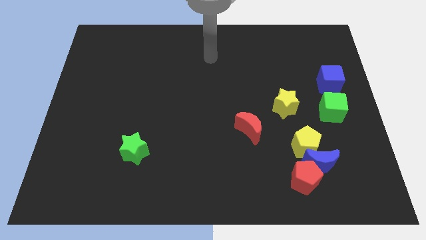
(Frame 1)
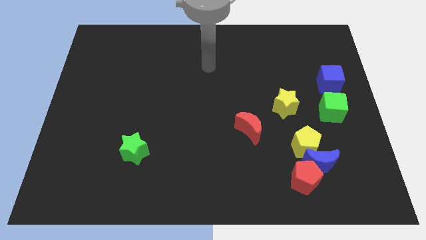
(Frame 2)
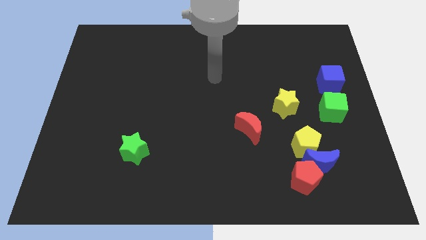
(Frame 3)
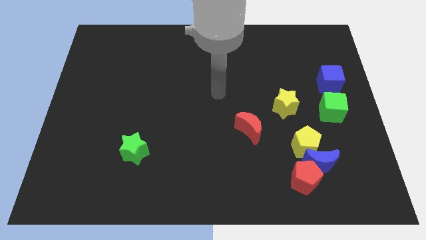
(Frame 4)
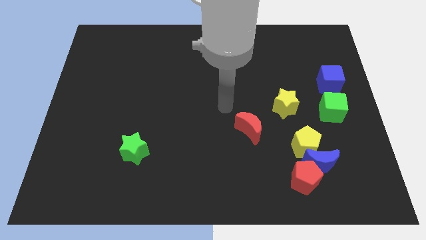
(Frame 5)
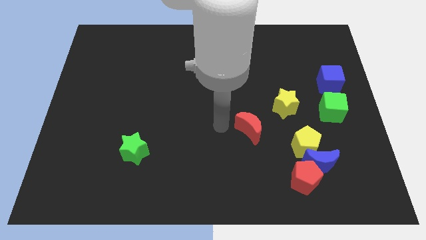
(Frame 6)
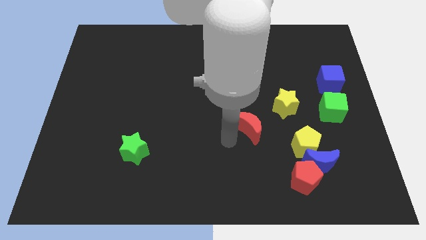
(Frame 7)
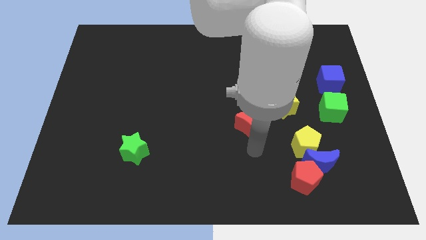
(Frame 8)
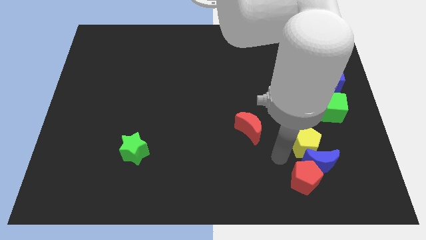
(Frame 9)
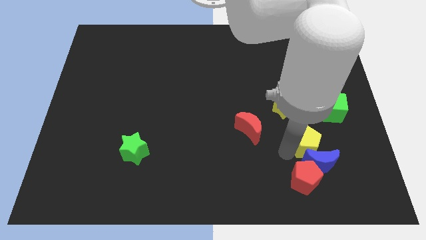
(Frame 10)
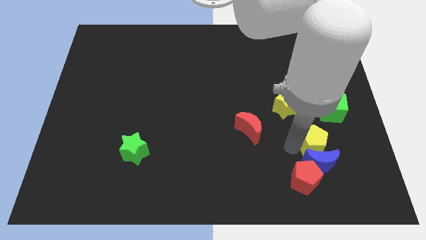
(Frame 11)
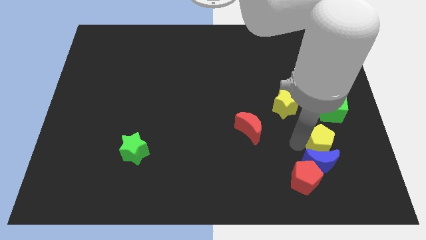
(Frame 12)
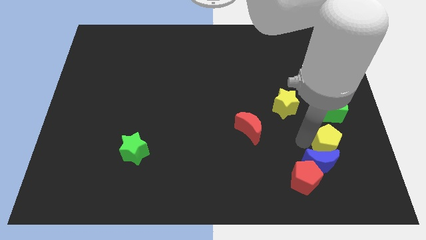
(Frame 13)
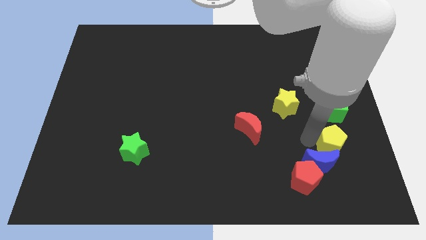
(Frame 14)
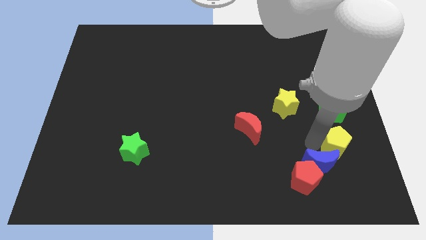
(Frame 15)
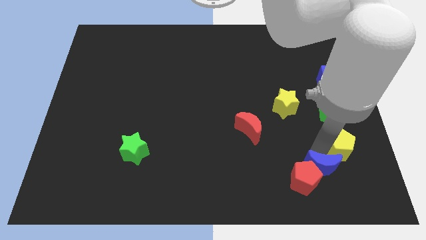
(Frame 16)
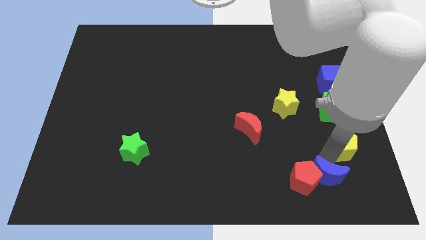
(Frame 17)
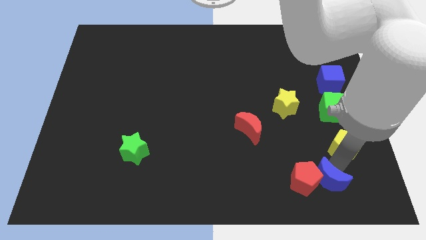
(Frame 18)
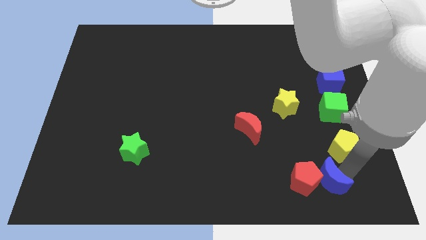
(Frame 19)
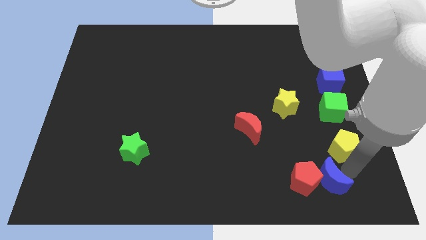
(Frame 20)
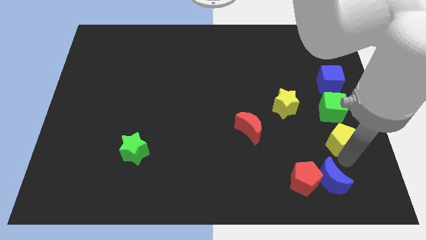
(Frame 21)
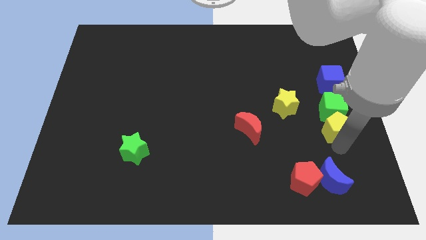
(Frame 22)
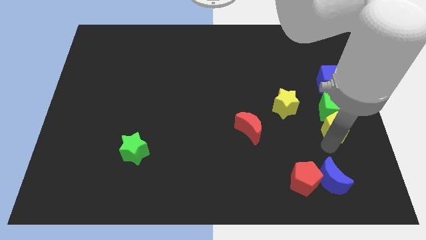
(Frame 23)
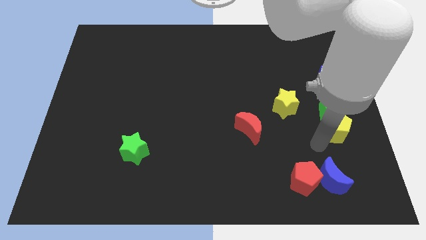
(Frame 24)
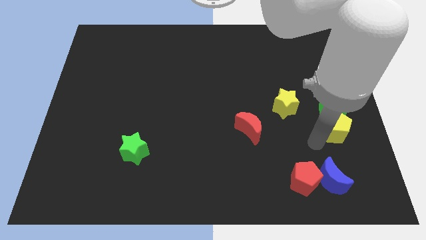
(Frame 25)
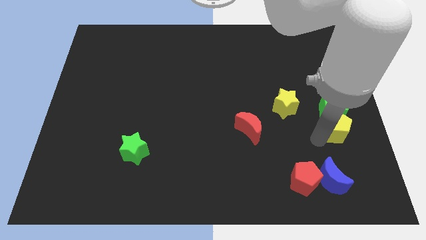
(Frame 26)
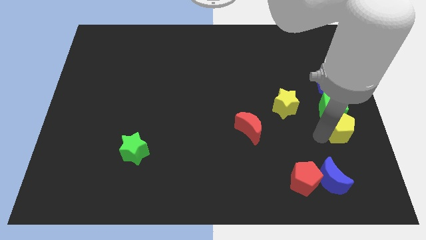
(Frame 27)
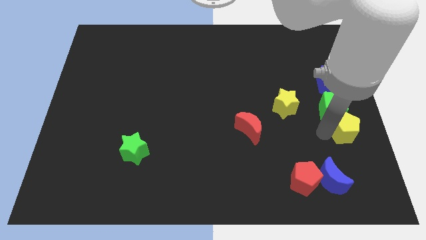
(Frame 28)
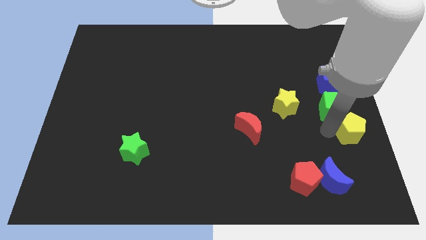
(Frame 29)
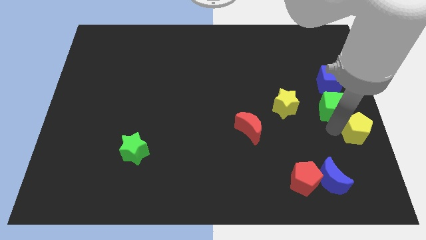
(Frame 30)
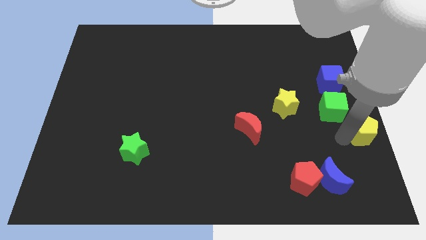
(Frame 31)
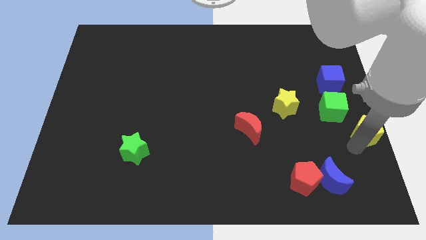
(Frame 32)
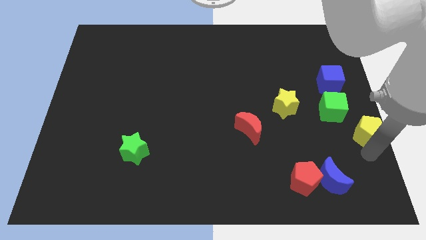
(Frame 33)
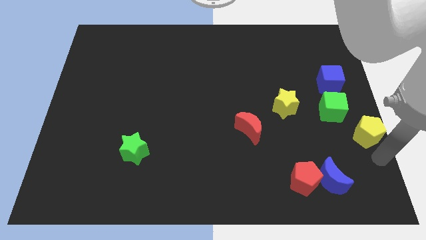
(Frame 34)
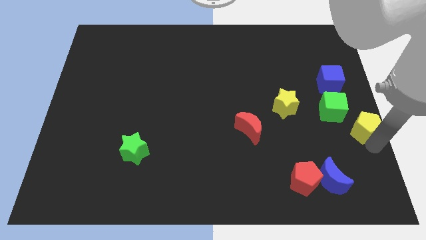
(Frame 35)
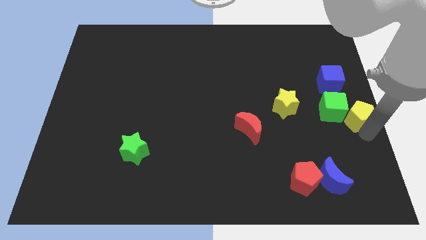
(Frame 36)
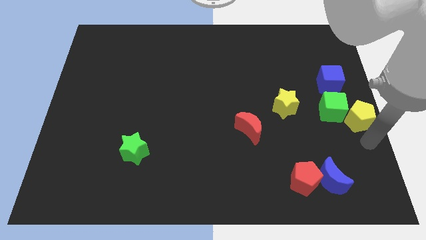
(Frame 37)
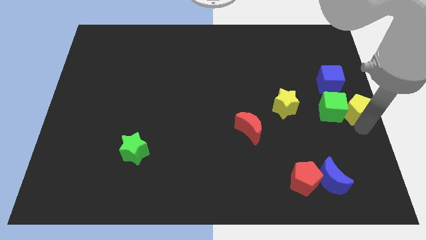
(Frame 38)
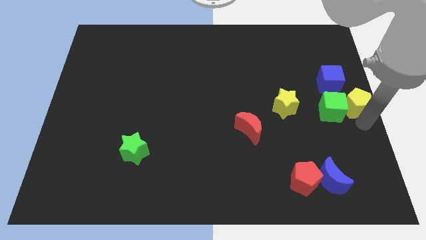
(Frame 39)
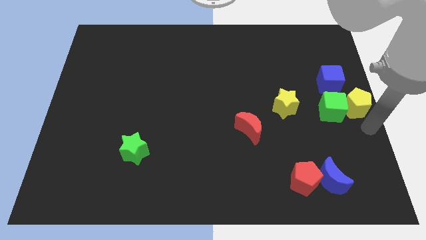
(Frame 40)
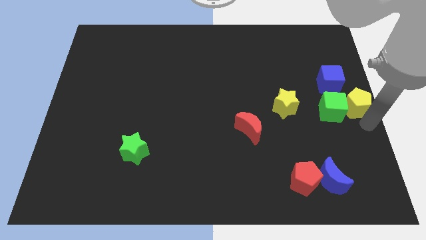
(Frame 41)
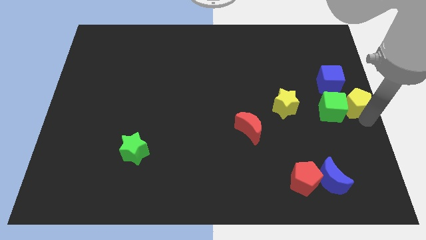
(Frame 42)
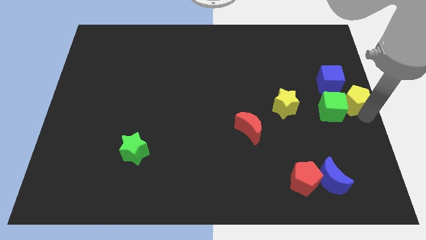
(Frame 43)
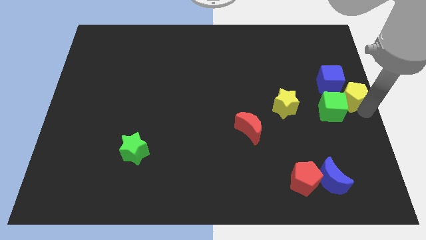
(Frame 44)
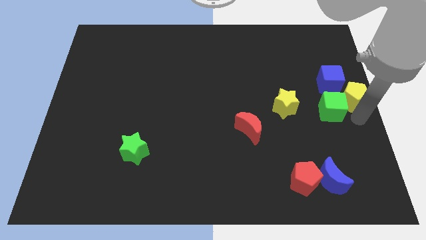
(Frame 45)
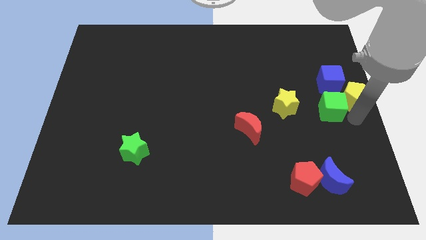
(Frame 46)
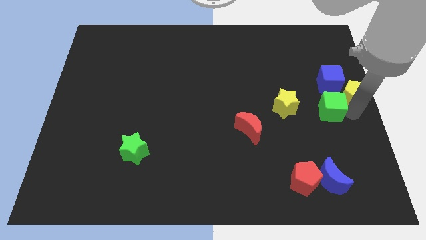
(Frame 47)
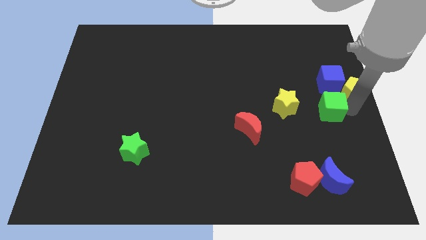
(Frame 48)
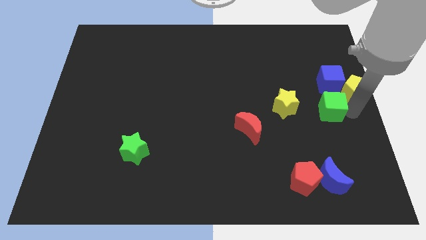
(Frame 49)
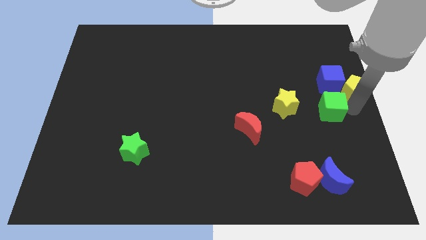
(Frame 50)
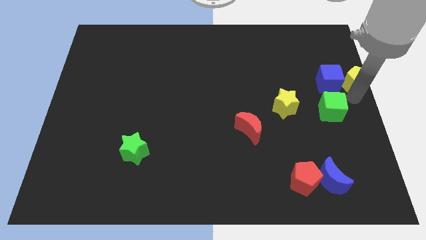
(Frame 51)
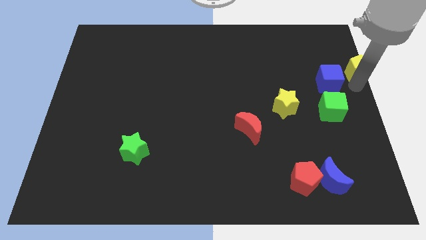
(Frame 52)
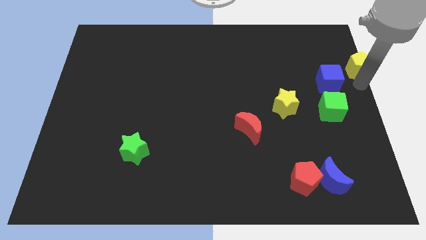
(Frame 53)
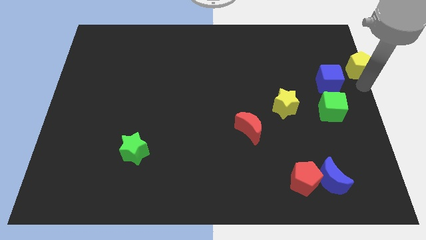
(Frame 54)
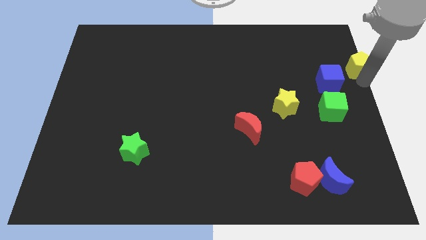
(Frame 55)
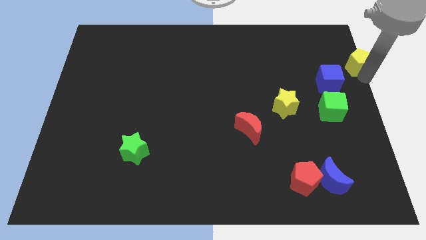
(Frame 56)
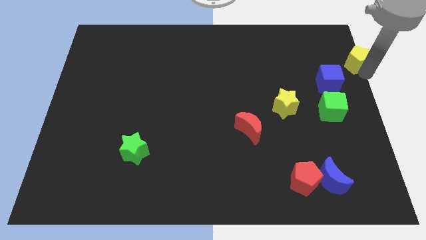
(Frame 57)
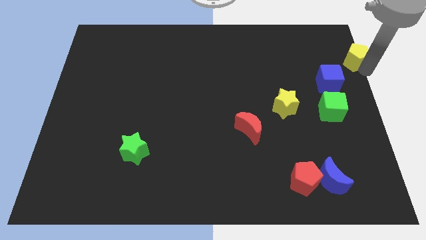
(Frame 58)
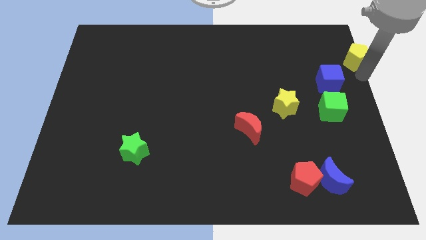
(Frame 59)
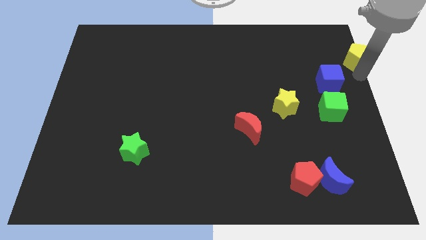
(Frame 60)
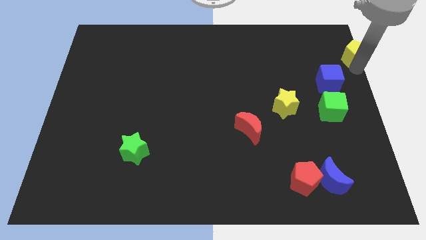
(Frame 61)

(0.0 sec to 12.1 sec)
move the yellow pentagon to the top right of the board
